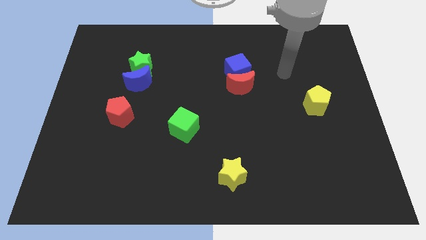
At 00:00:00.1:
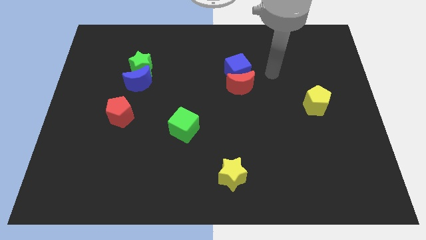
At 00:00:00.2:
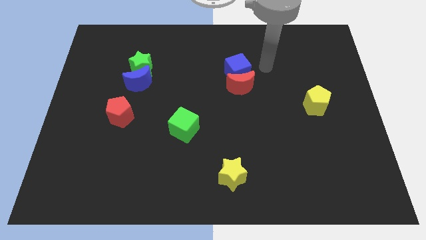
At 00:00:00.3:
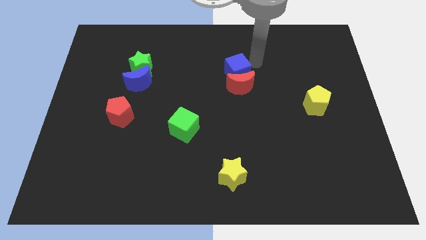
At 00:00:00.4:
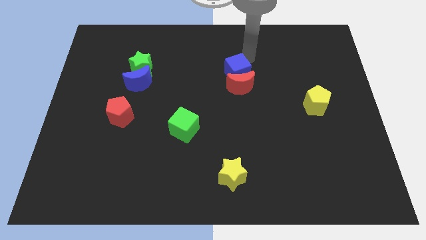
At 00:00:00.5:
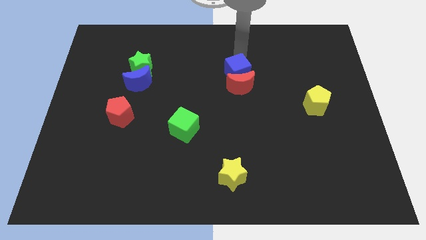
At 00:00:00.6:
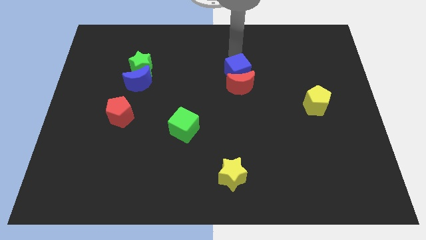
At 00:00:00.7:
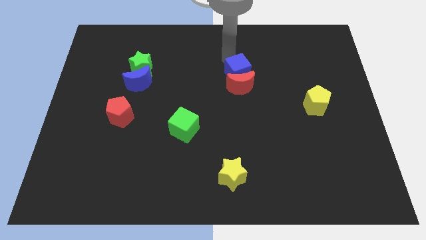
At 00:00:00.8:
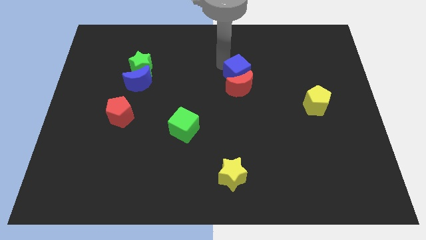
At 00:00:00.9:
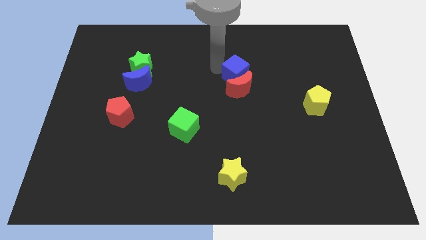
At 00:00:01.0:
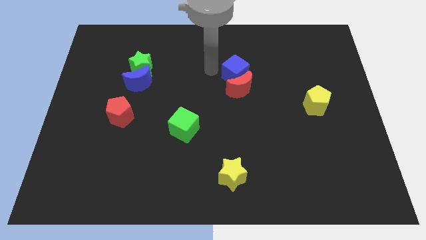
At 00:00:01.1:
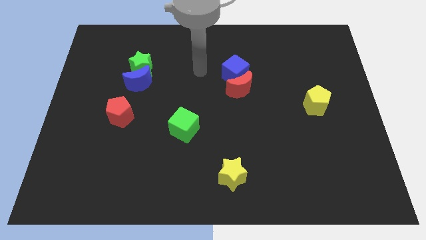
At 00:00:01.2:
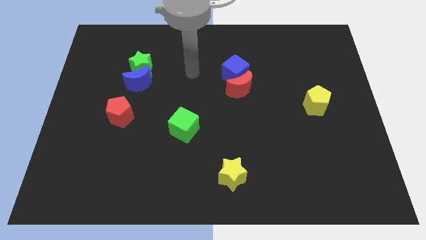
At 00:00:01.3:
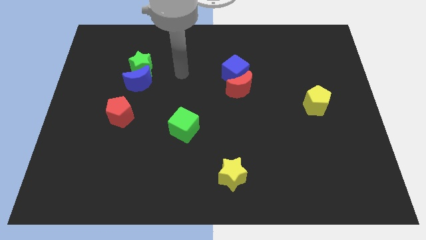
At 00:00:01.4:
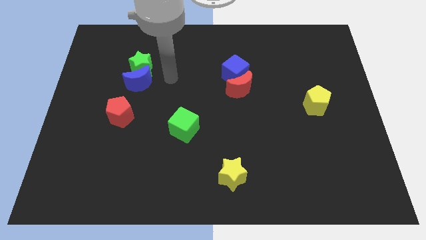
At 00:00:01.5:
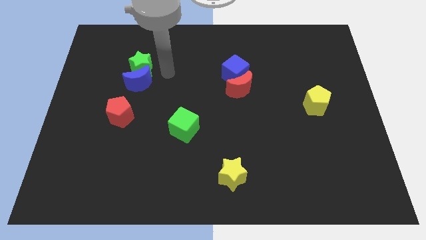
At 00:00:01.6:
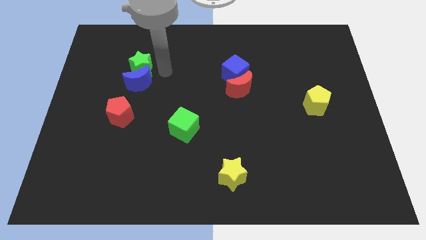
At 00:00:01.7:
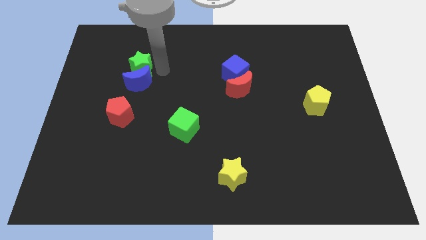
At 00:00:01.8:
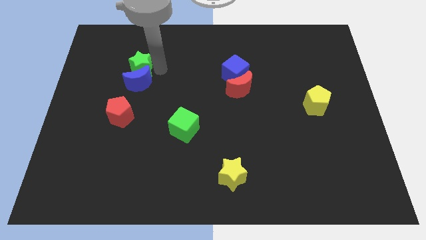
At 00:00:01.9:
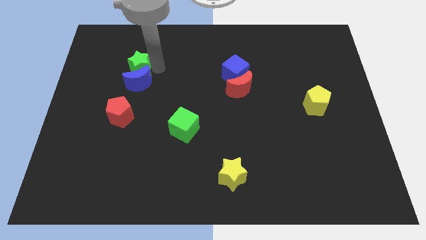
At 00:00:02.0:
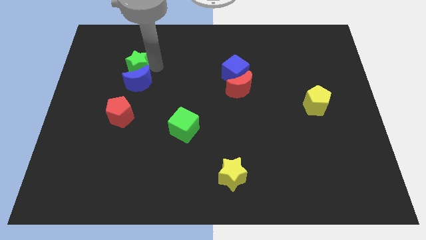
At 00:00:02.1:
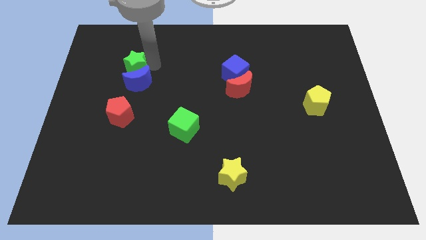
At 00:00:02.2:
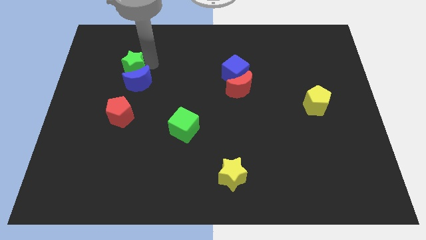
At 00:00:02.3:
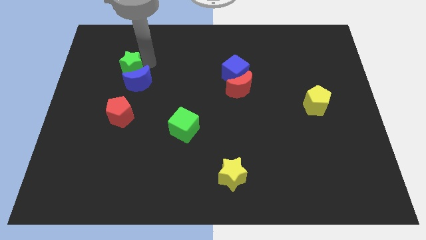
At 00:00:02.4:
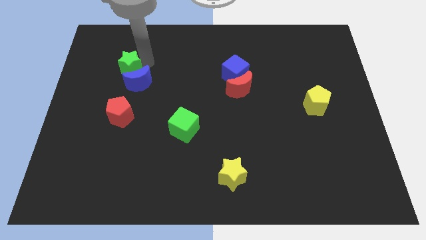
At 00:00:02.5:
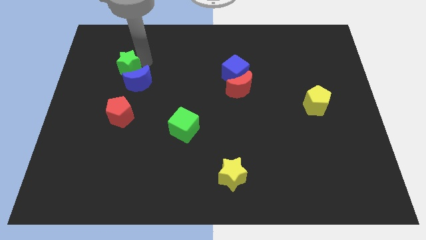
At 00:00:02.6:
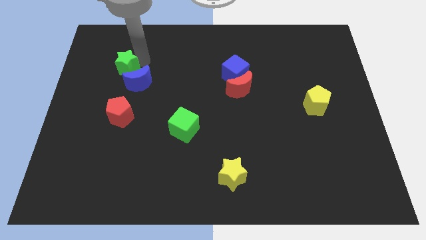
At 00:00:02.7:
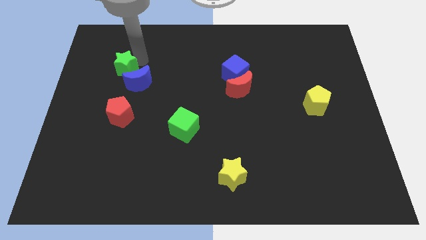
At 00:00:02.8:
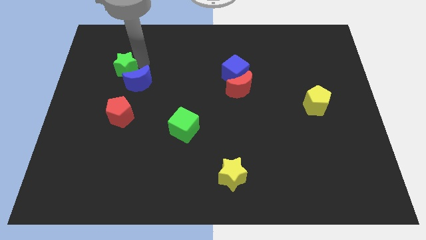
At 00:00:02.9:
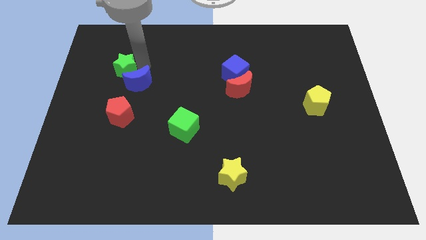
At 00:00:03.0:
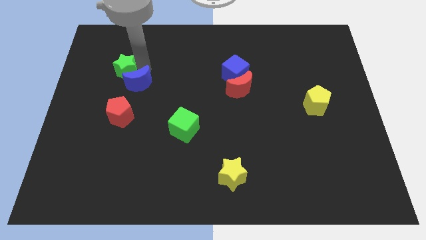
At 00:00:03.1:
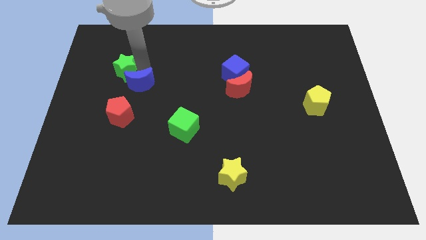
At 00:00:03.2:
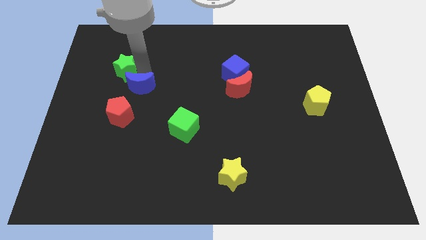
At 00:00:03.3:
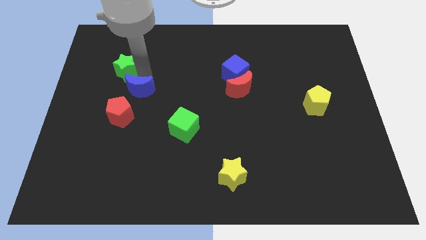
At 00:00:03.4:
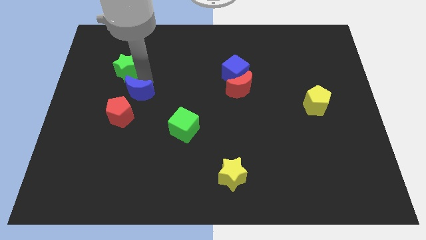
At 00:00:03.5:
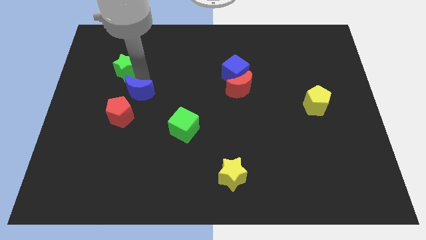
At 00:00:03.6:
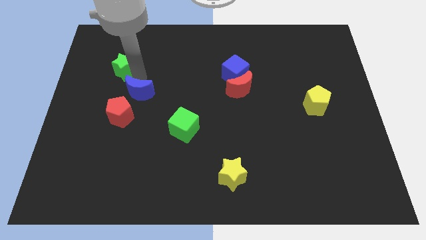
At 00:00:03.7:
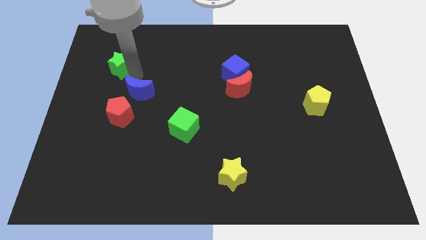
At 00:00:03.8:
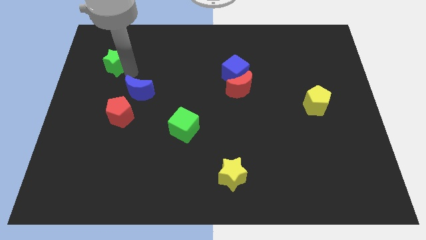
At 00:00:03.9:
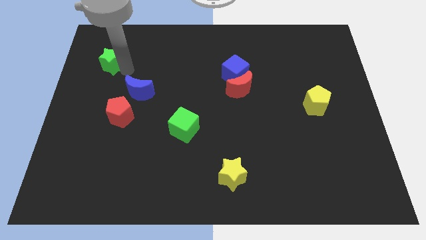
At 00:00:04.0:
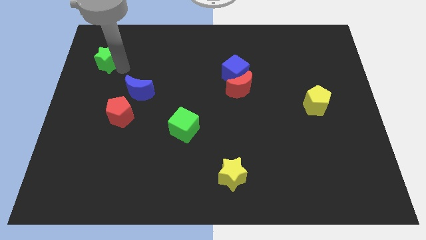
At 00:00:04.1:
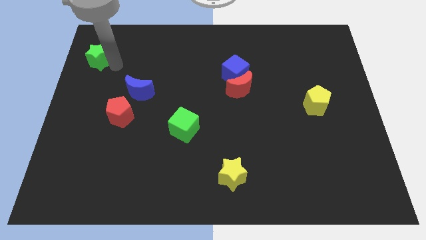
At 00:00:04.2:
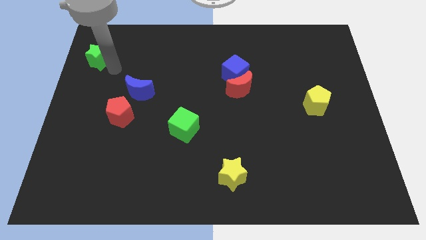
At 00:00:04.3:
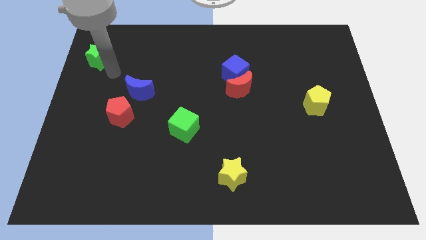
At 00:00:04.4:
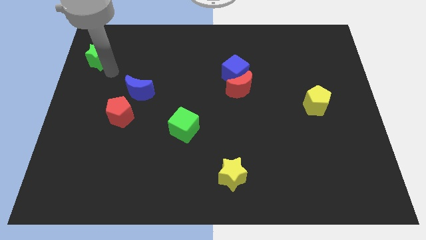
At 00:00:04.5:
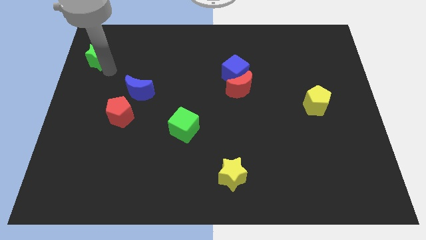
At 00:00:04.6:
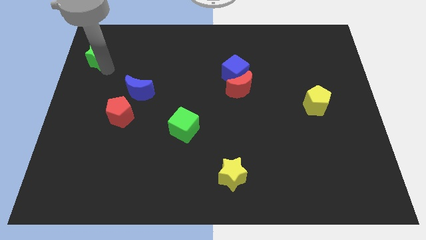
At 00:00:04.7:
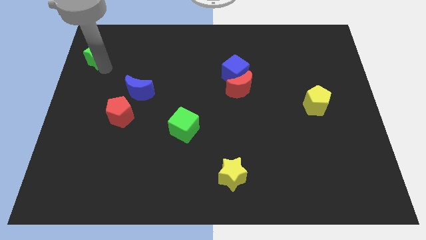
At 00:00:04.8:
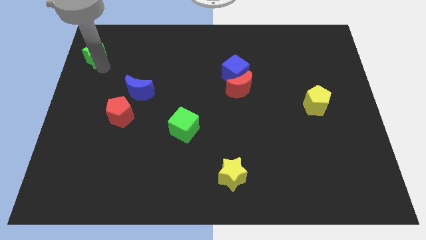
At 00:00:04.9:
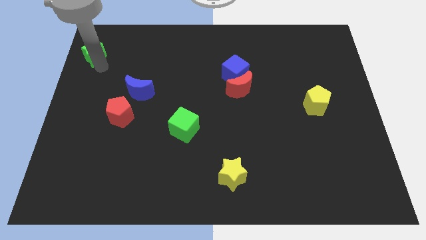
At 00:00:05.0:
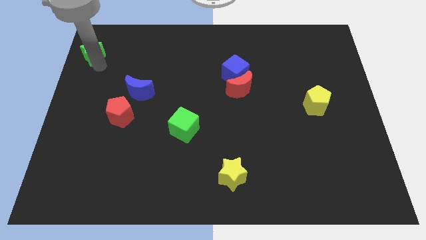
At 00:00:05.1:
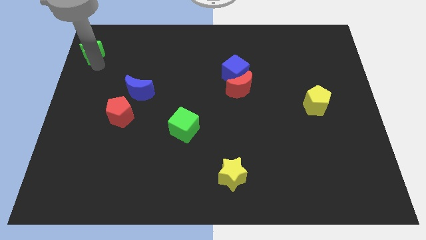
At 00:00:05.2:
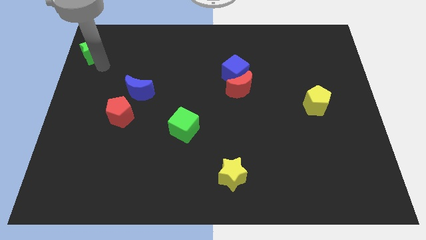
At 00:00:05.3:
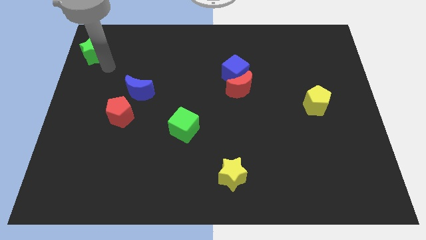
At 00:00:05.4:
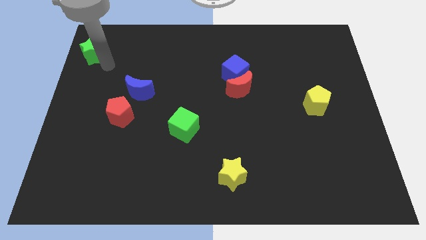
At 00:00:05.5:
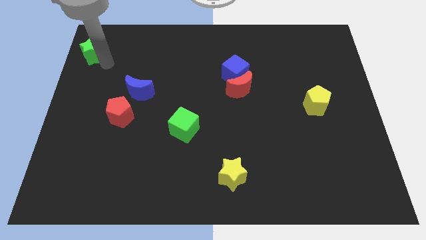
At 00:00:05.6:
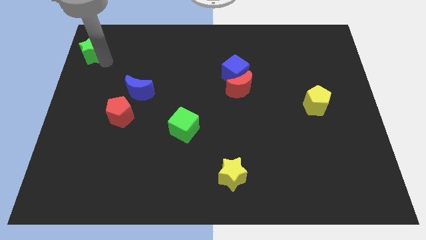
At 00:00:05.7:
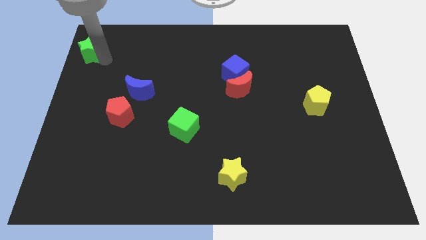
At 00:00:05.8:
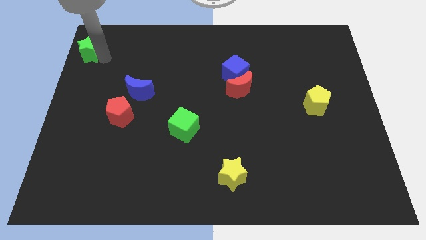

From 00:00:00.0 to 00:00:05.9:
put the green star to the top left of the board
